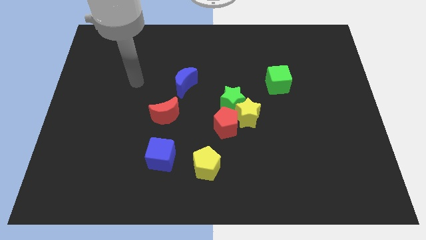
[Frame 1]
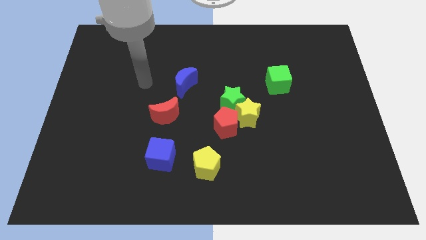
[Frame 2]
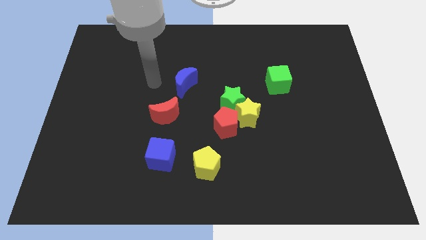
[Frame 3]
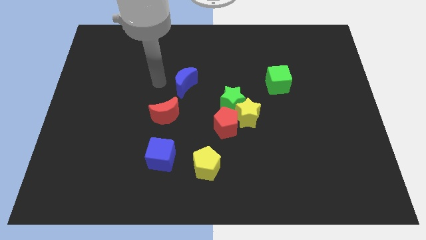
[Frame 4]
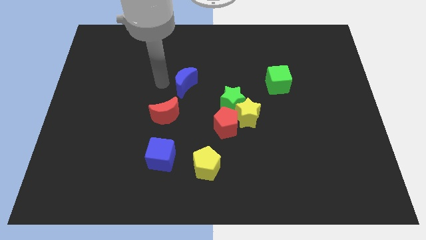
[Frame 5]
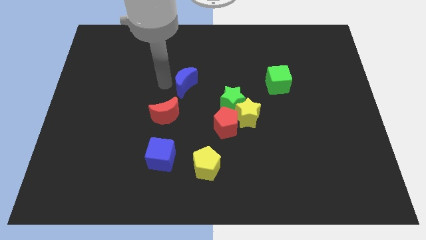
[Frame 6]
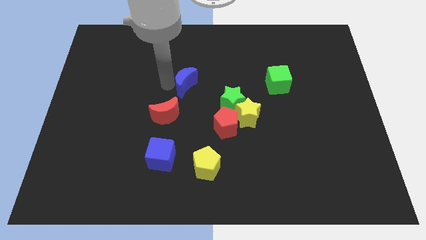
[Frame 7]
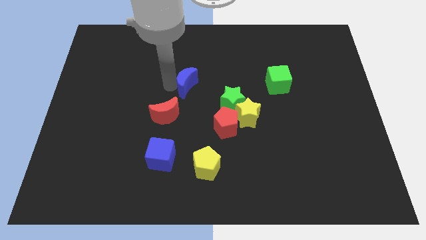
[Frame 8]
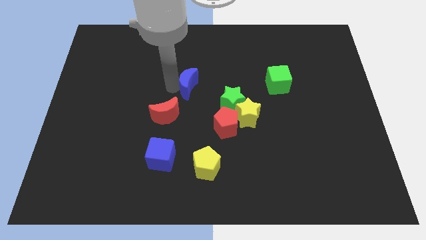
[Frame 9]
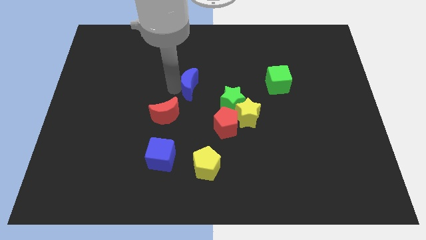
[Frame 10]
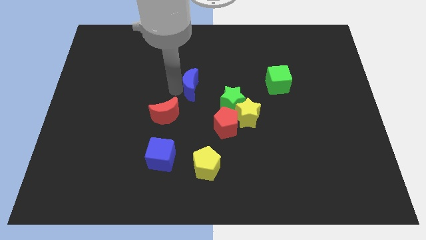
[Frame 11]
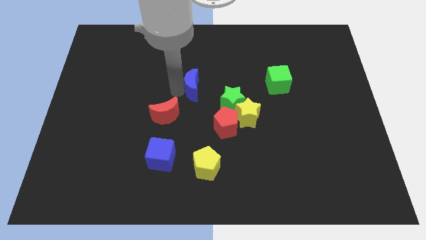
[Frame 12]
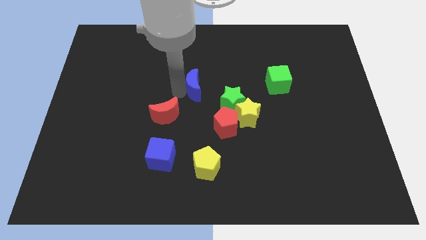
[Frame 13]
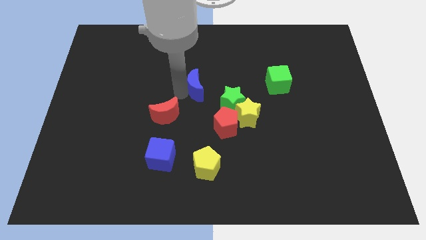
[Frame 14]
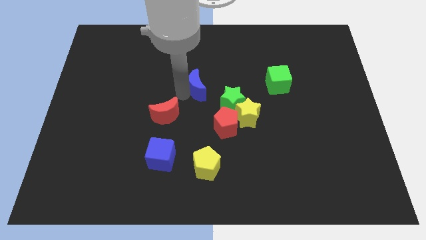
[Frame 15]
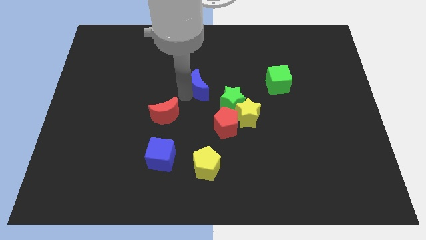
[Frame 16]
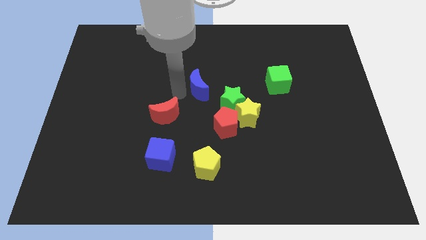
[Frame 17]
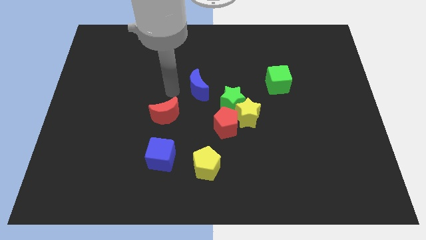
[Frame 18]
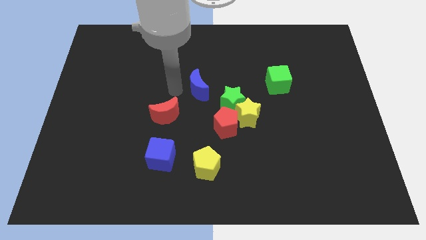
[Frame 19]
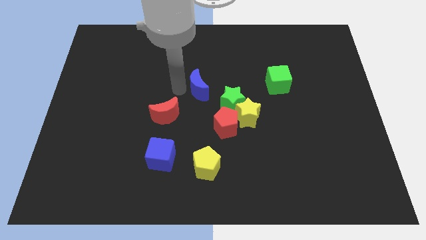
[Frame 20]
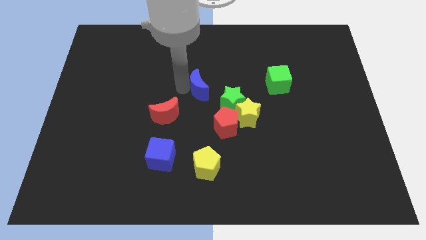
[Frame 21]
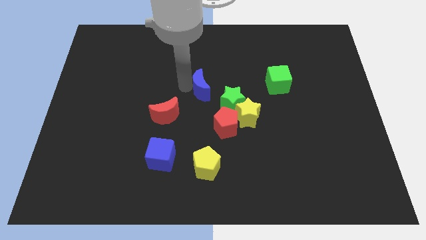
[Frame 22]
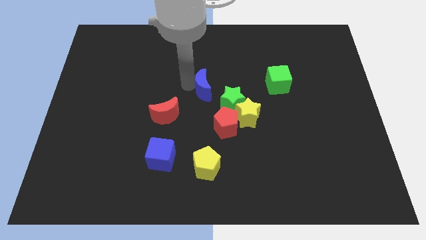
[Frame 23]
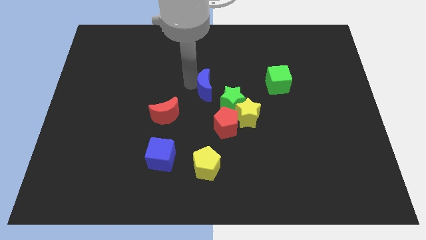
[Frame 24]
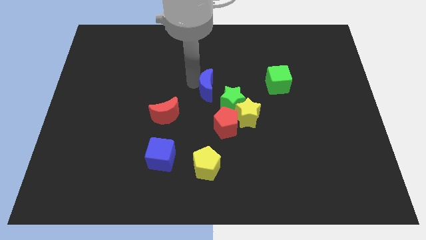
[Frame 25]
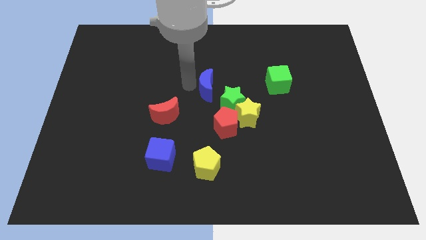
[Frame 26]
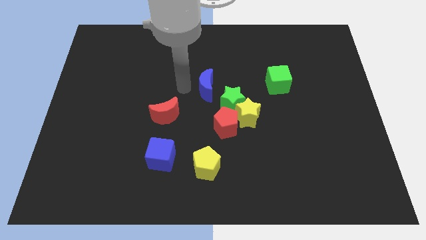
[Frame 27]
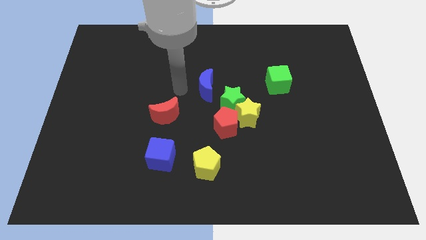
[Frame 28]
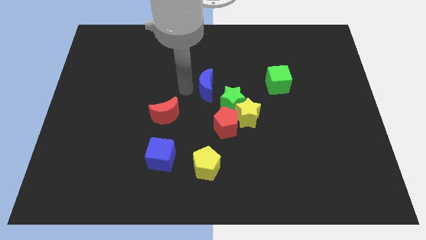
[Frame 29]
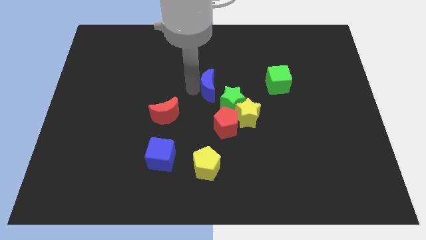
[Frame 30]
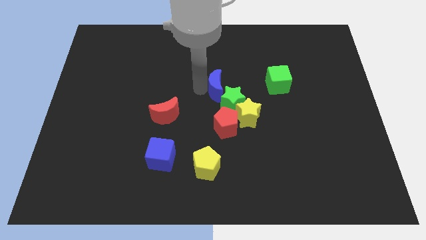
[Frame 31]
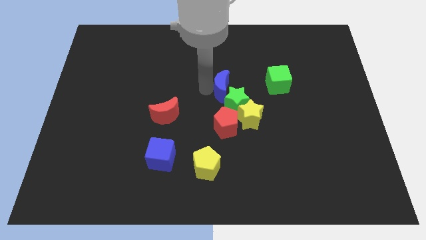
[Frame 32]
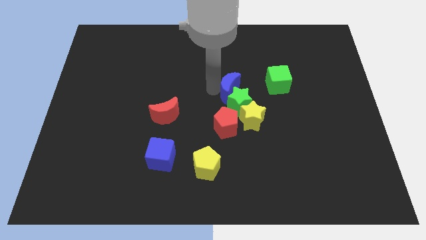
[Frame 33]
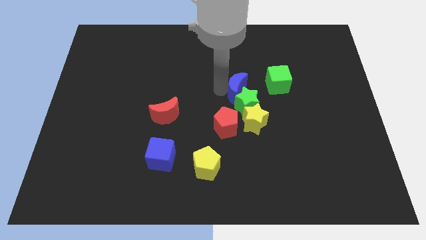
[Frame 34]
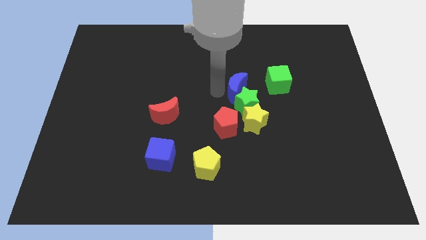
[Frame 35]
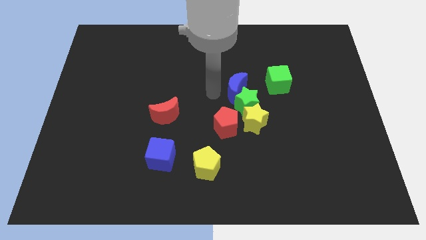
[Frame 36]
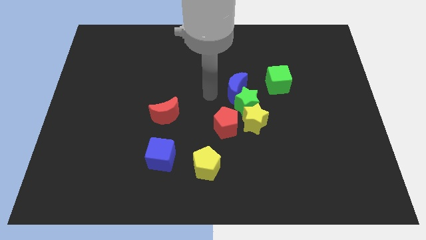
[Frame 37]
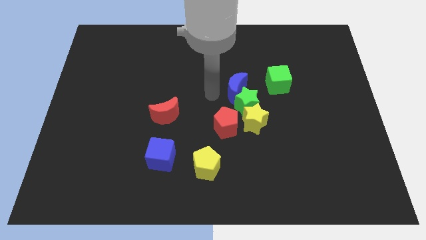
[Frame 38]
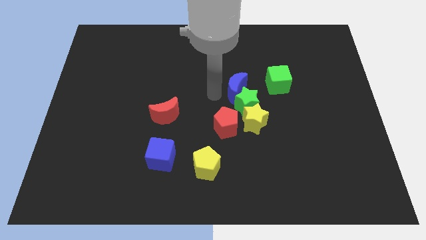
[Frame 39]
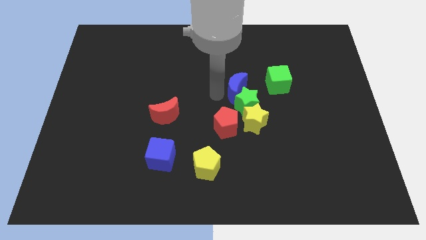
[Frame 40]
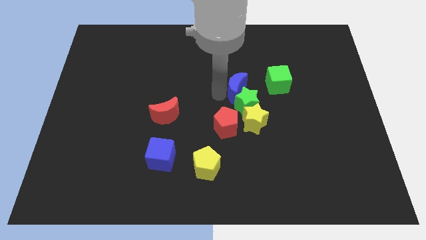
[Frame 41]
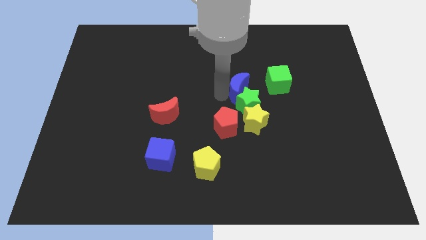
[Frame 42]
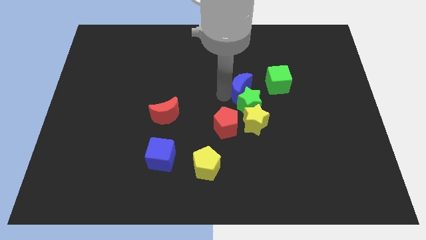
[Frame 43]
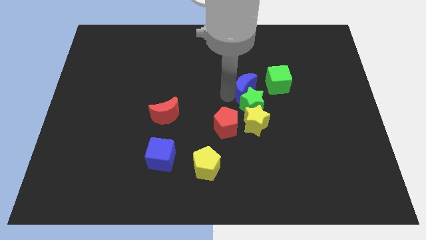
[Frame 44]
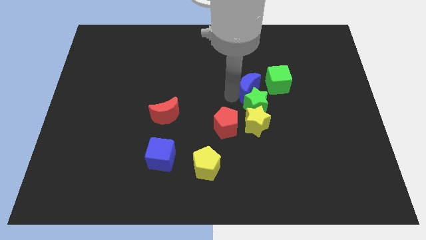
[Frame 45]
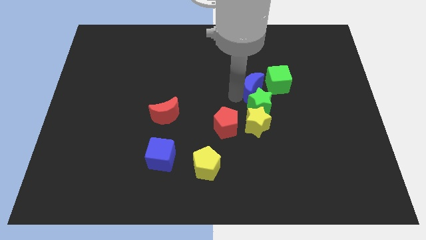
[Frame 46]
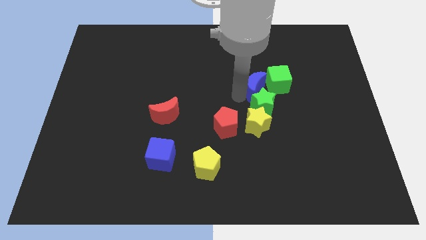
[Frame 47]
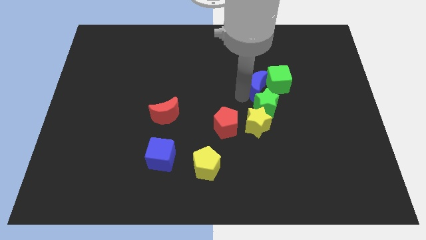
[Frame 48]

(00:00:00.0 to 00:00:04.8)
slide the blue moon to the green cube

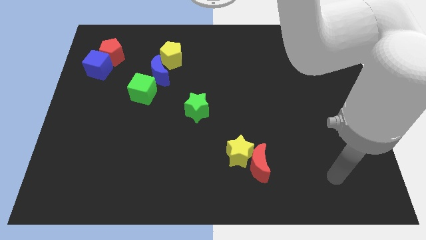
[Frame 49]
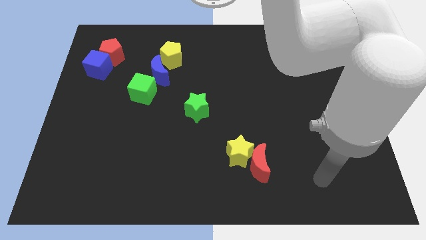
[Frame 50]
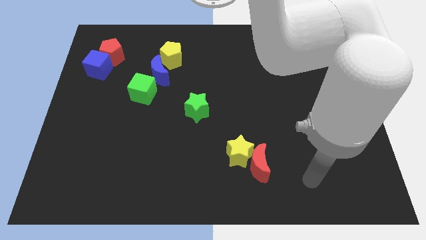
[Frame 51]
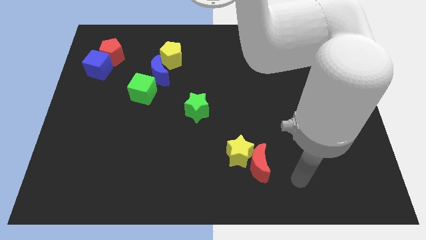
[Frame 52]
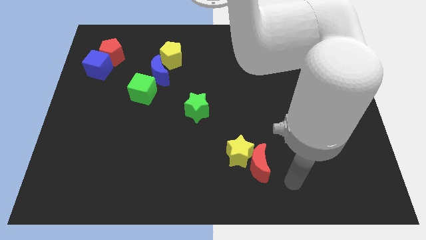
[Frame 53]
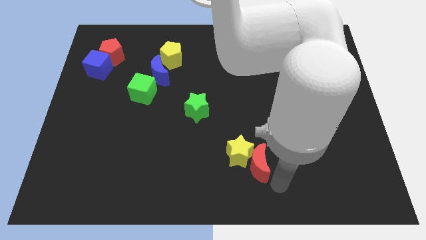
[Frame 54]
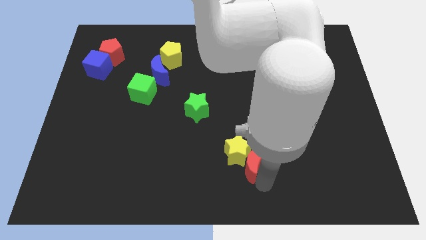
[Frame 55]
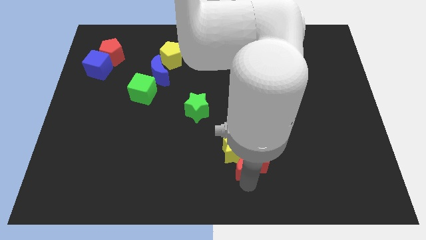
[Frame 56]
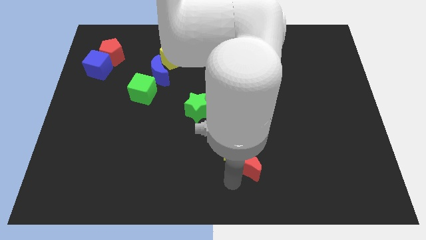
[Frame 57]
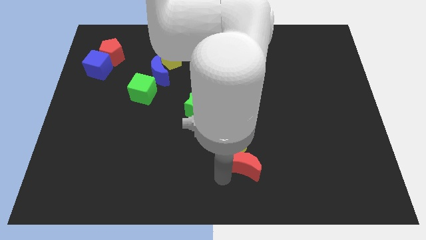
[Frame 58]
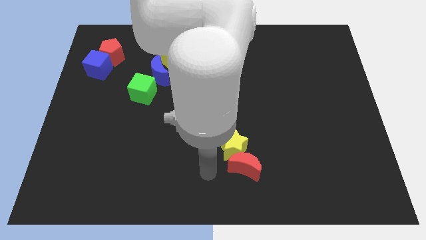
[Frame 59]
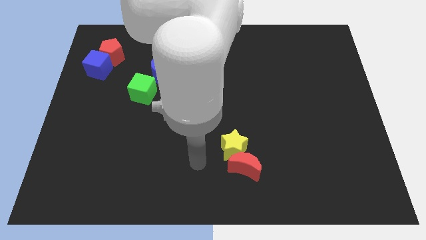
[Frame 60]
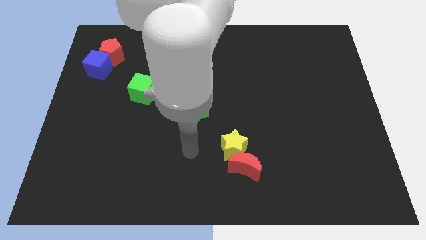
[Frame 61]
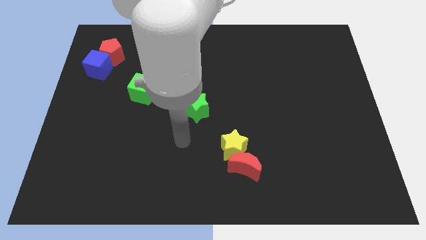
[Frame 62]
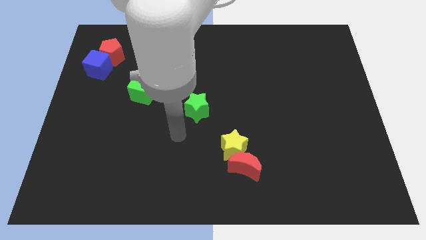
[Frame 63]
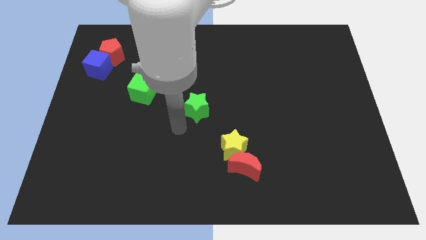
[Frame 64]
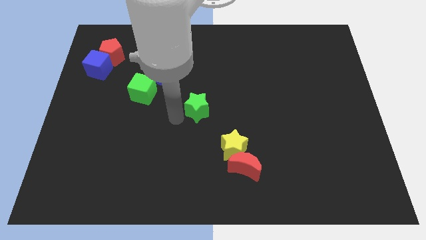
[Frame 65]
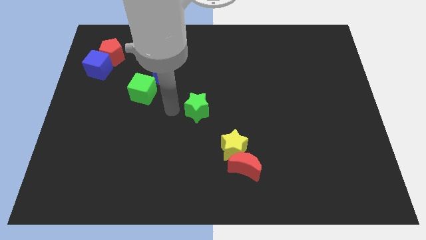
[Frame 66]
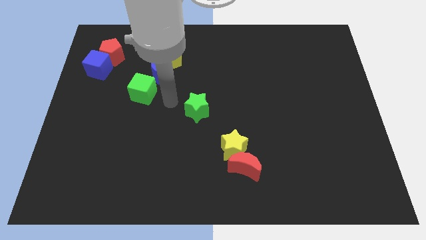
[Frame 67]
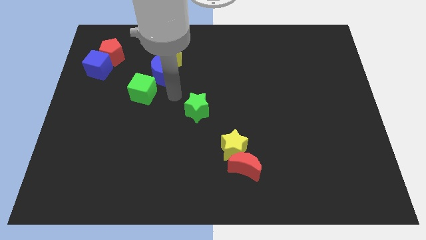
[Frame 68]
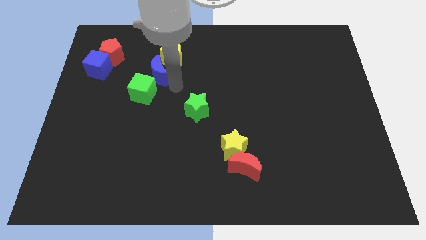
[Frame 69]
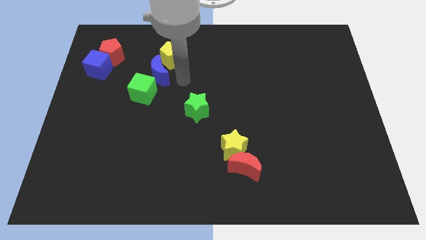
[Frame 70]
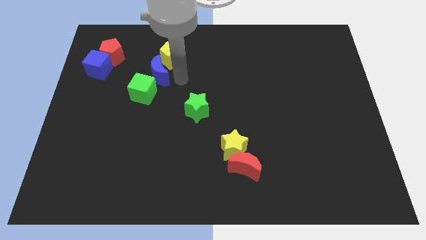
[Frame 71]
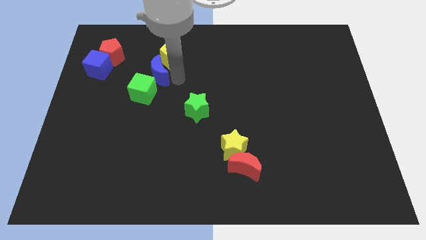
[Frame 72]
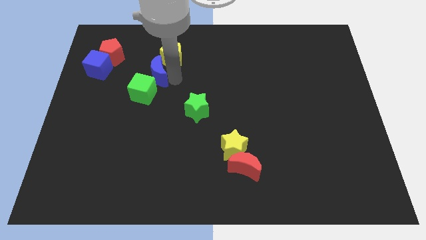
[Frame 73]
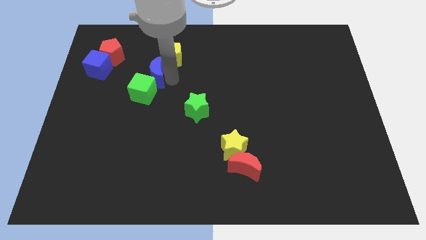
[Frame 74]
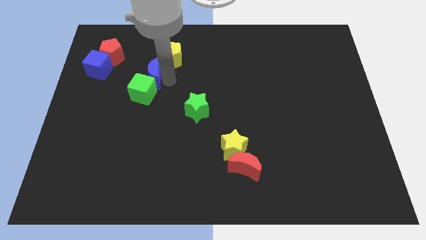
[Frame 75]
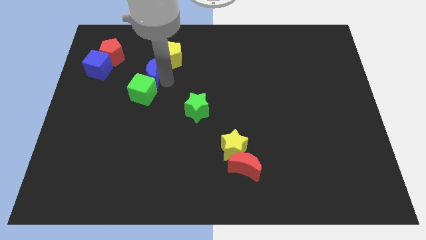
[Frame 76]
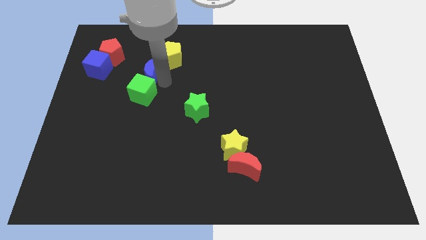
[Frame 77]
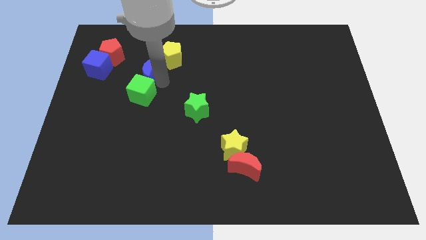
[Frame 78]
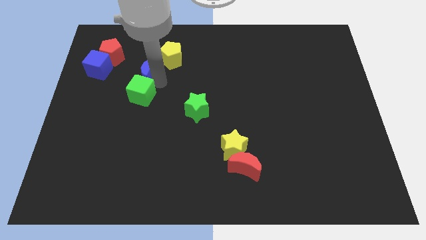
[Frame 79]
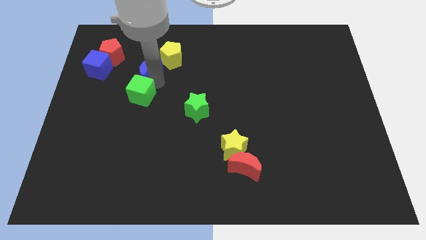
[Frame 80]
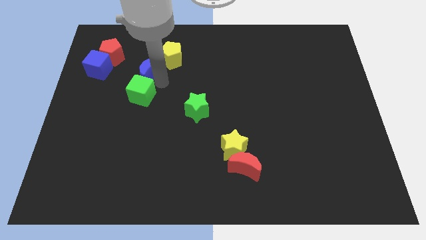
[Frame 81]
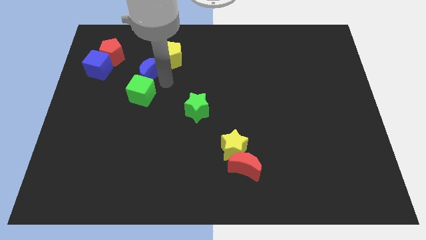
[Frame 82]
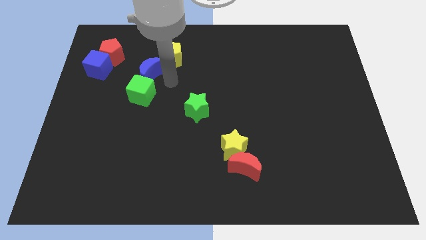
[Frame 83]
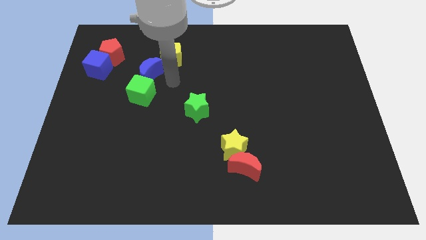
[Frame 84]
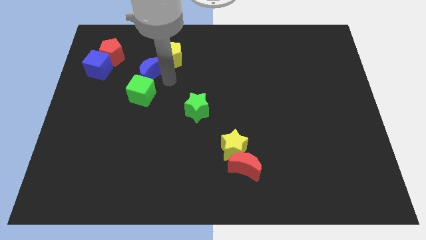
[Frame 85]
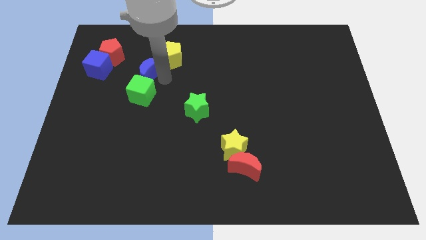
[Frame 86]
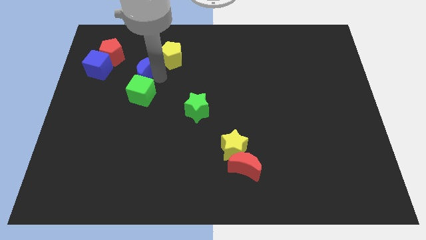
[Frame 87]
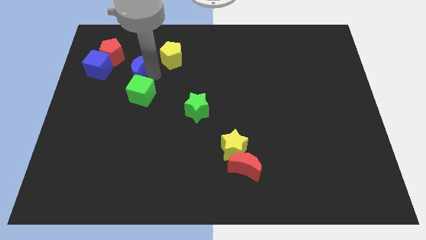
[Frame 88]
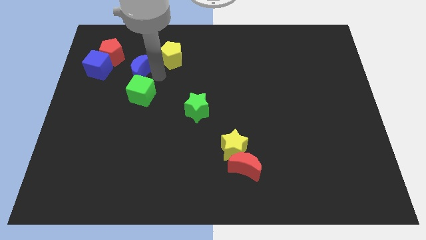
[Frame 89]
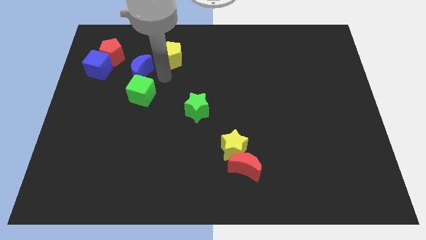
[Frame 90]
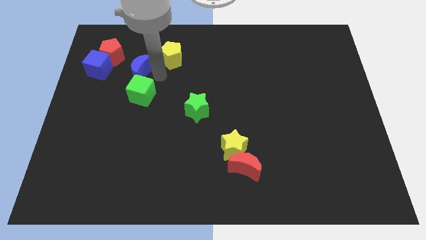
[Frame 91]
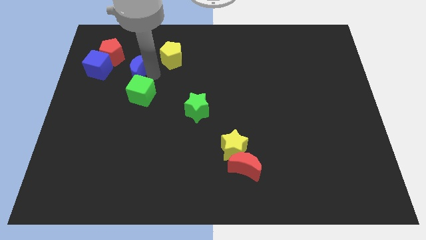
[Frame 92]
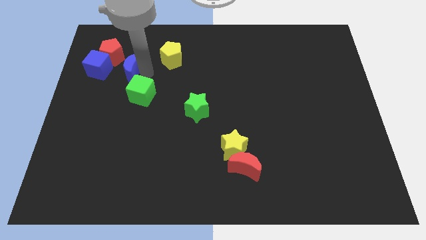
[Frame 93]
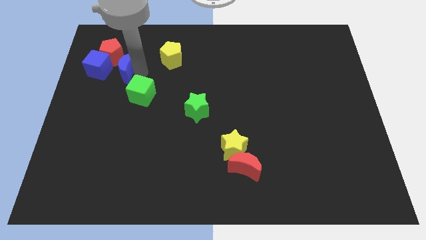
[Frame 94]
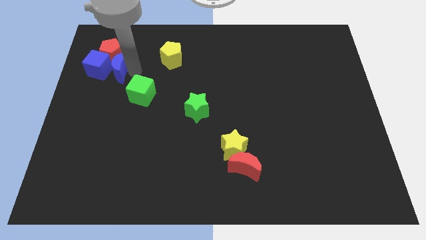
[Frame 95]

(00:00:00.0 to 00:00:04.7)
push the blue moon towards the blue cube
